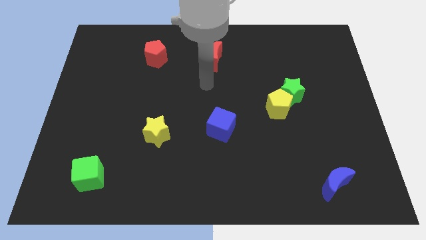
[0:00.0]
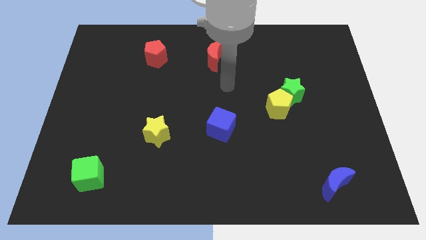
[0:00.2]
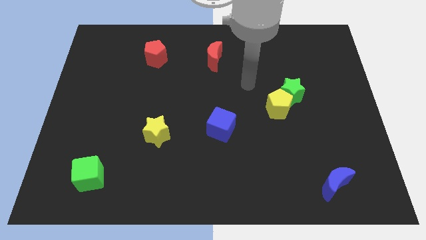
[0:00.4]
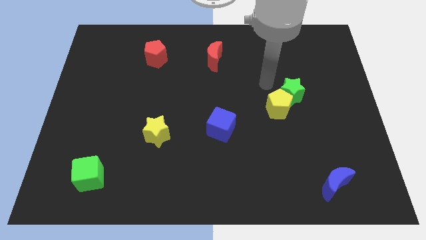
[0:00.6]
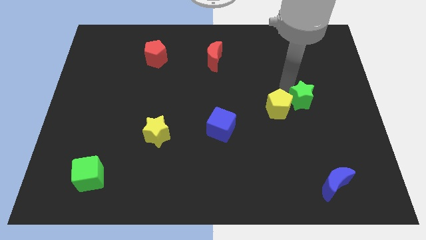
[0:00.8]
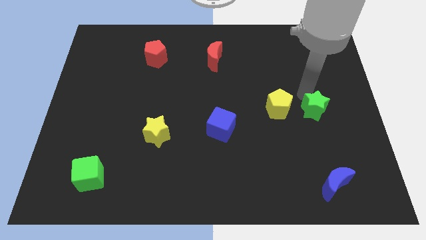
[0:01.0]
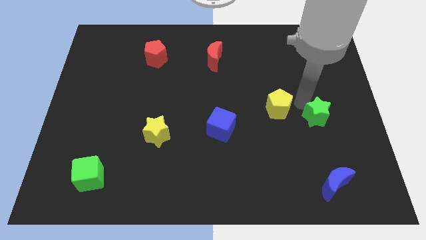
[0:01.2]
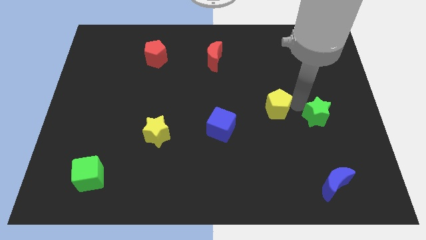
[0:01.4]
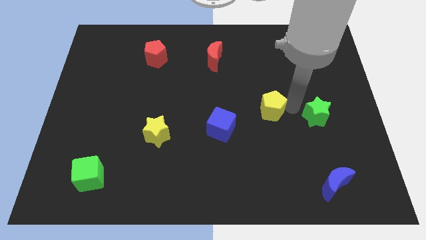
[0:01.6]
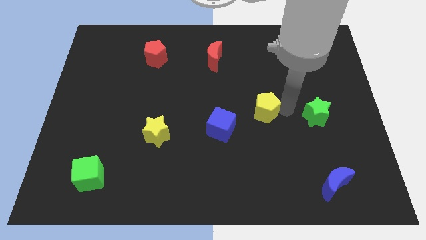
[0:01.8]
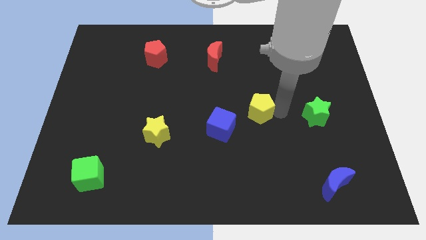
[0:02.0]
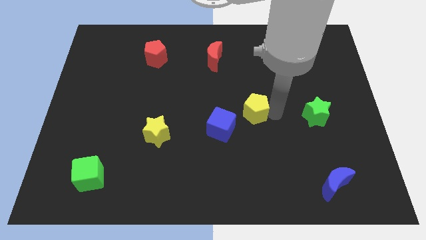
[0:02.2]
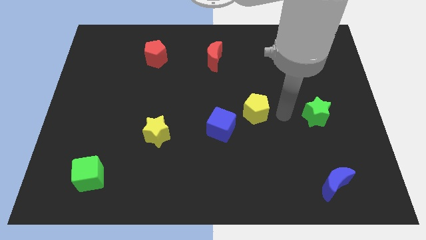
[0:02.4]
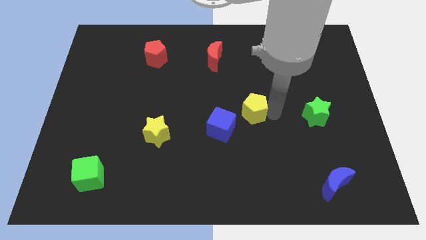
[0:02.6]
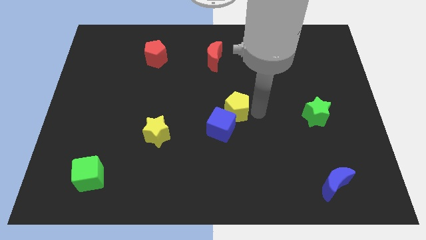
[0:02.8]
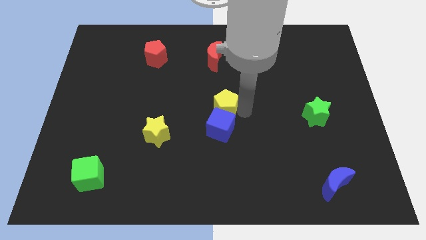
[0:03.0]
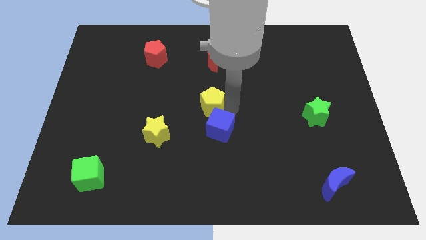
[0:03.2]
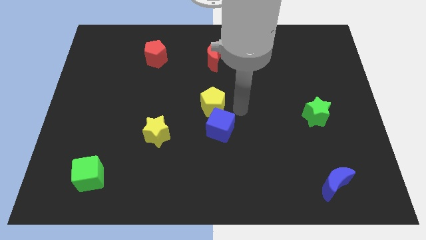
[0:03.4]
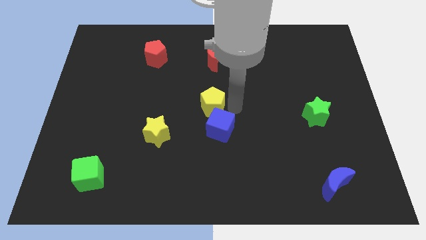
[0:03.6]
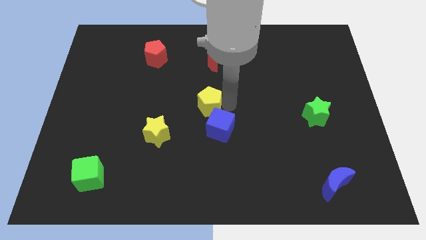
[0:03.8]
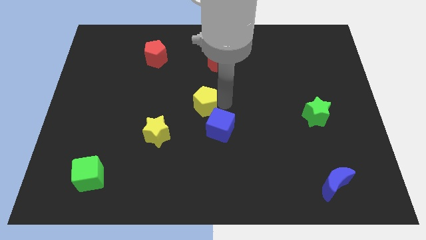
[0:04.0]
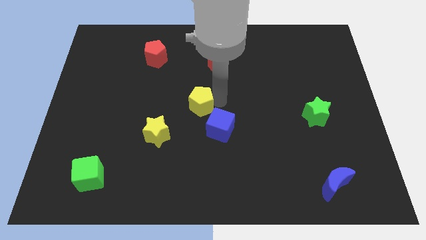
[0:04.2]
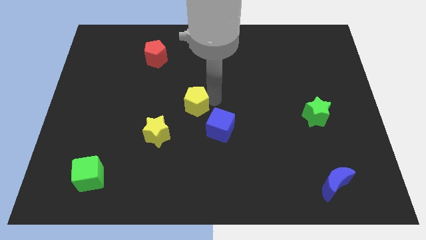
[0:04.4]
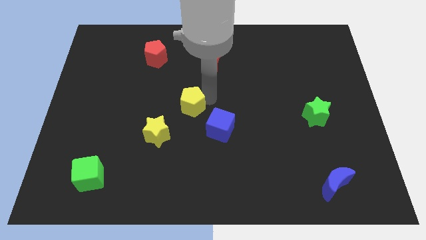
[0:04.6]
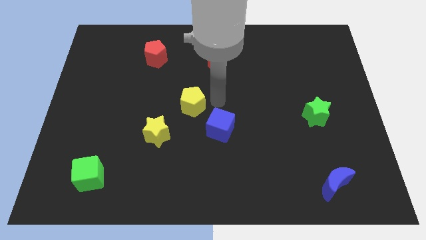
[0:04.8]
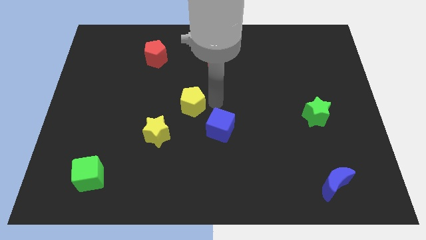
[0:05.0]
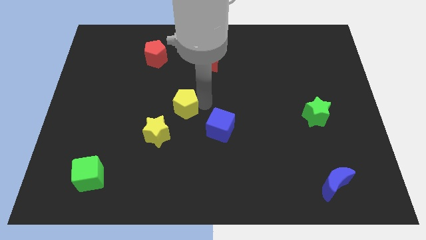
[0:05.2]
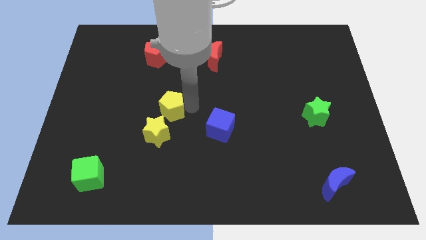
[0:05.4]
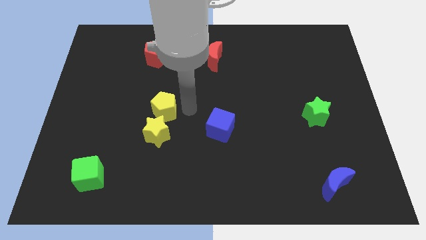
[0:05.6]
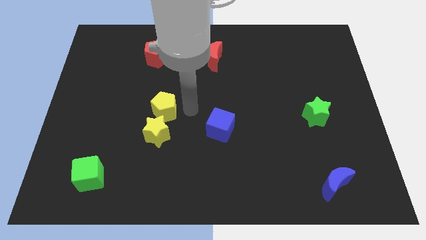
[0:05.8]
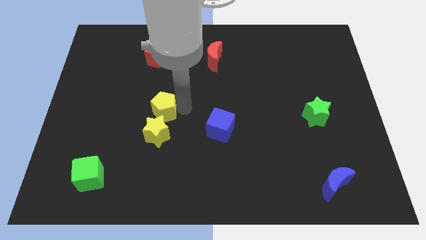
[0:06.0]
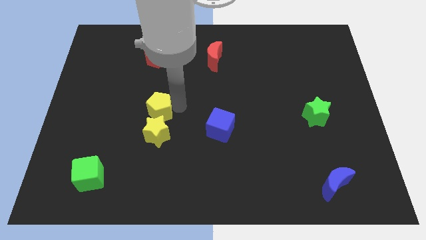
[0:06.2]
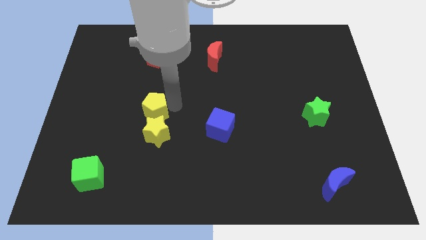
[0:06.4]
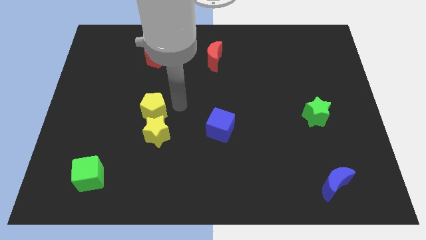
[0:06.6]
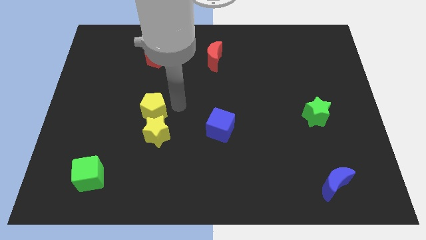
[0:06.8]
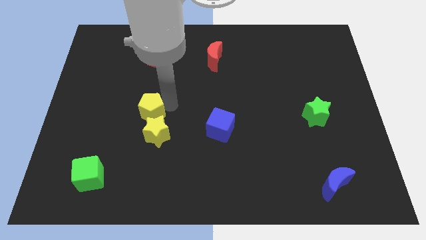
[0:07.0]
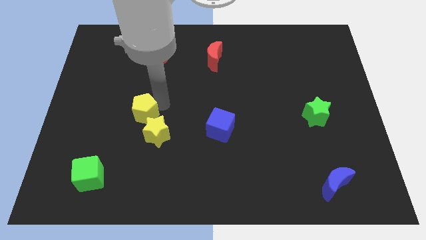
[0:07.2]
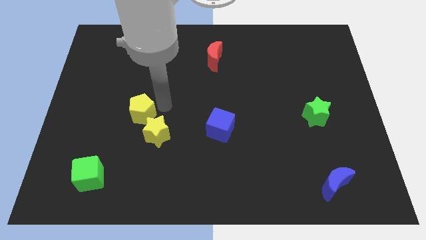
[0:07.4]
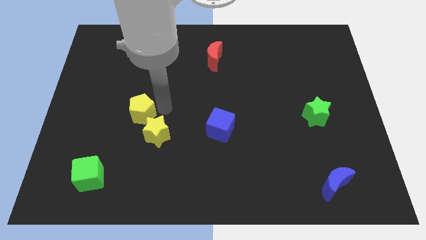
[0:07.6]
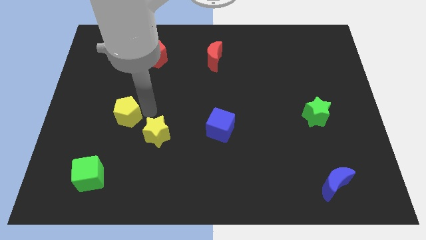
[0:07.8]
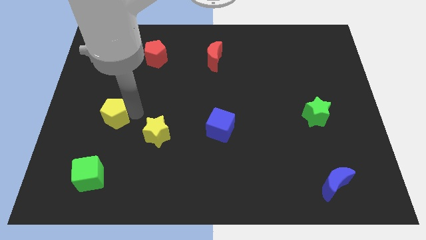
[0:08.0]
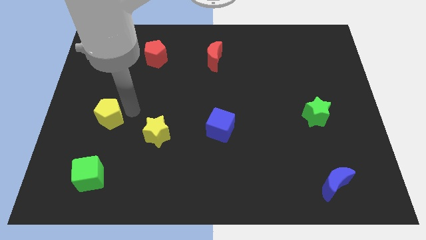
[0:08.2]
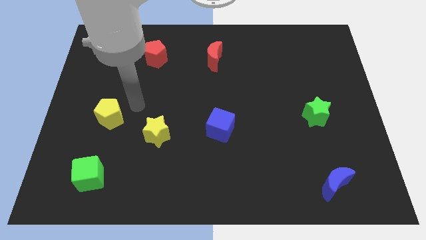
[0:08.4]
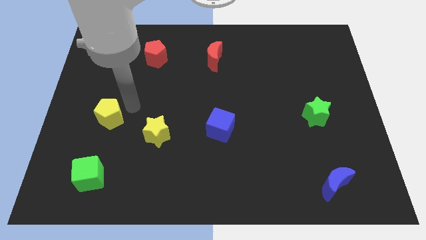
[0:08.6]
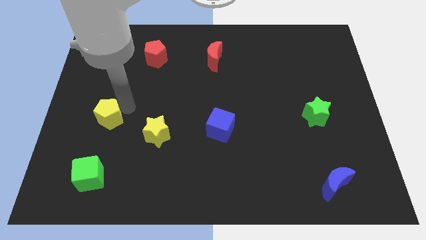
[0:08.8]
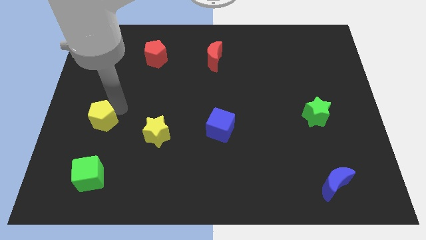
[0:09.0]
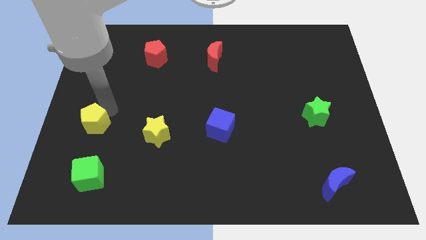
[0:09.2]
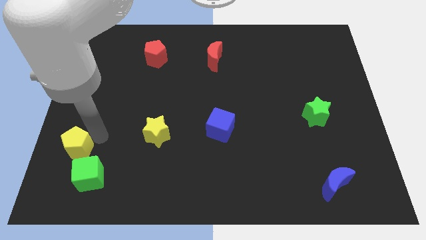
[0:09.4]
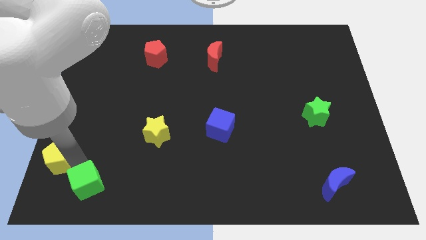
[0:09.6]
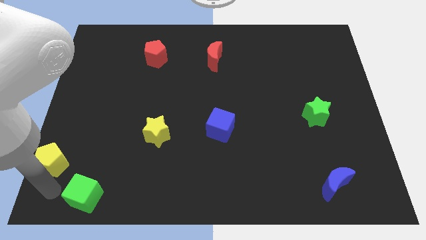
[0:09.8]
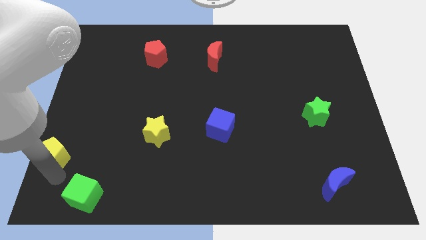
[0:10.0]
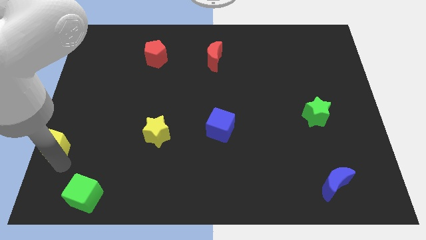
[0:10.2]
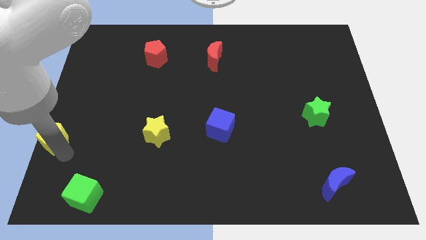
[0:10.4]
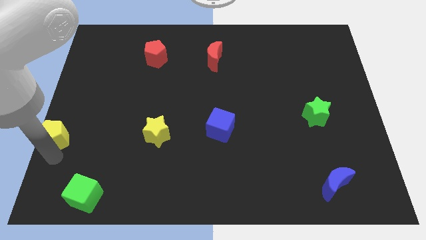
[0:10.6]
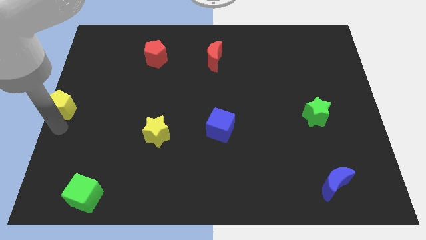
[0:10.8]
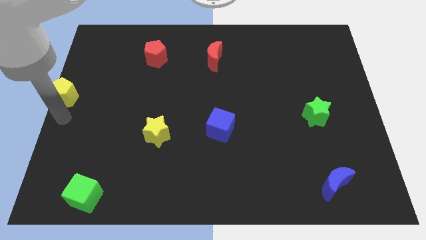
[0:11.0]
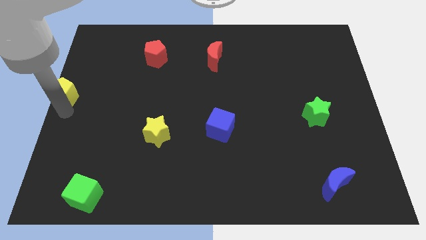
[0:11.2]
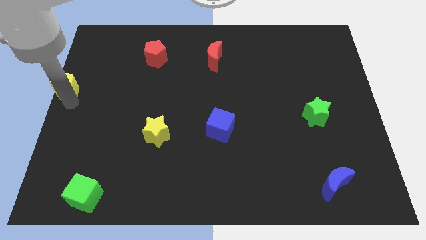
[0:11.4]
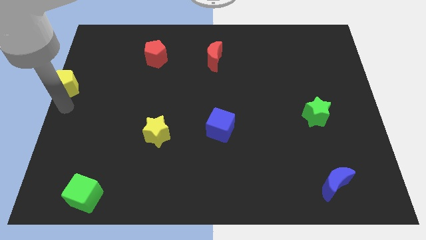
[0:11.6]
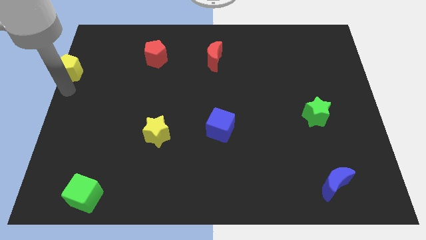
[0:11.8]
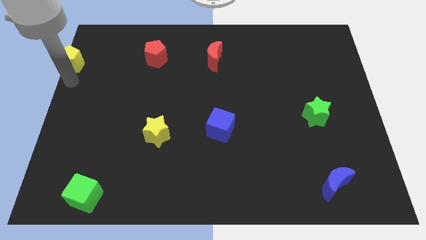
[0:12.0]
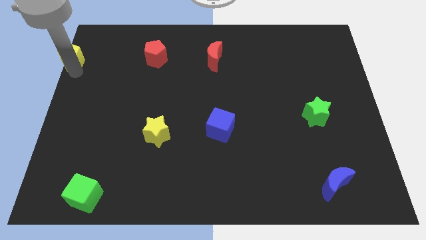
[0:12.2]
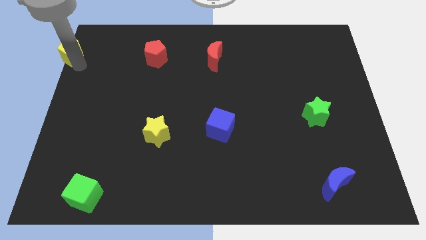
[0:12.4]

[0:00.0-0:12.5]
slide the yellow pentagon to the upper left corner
